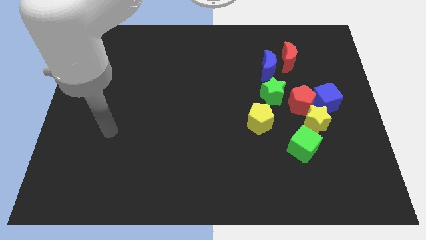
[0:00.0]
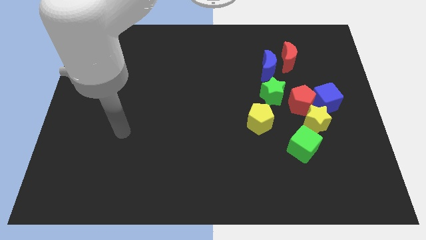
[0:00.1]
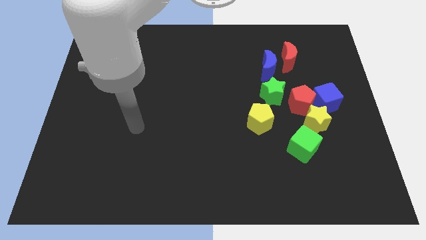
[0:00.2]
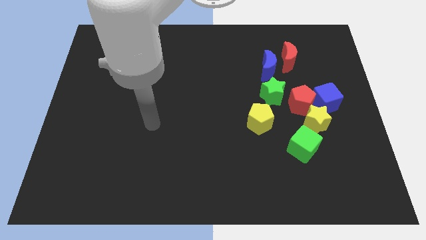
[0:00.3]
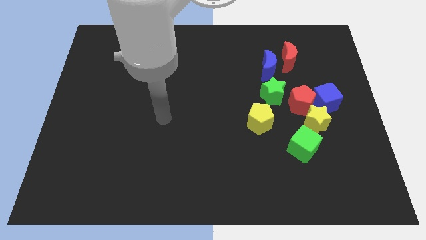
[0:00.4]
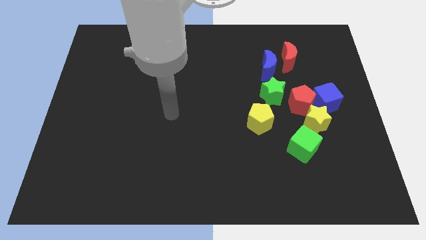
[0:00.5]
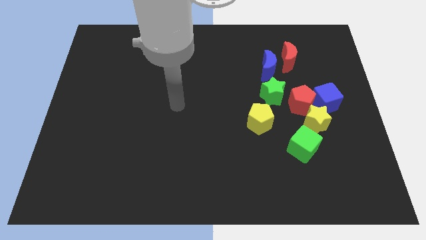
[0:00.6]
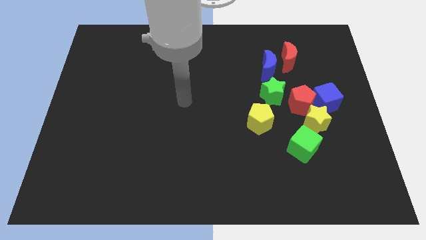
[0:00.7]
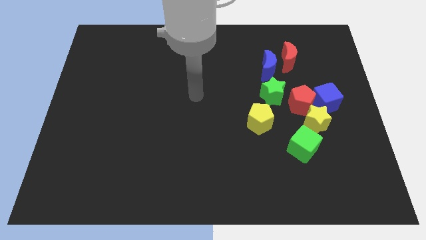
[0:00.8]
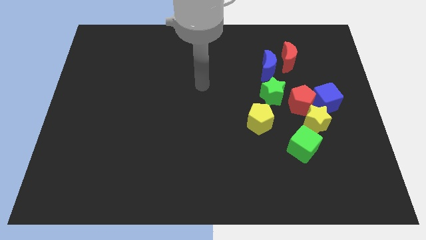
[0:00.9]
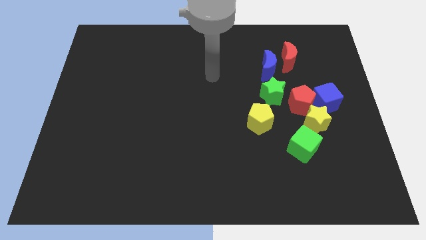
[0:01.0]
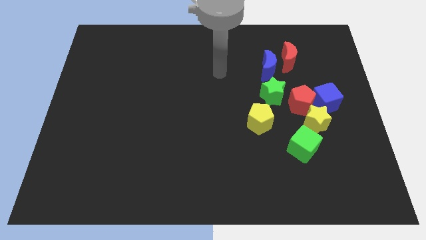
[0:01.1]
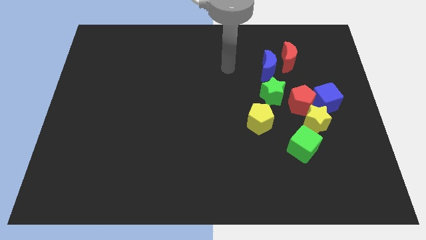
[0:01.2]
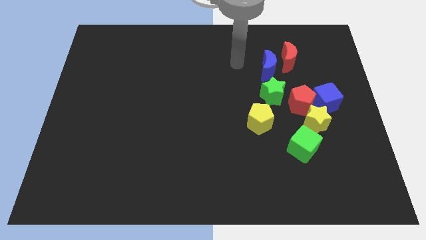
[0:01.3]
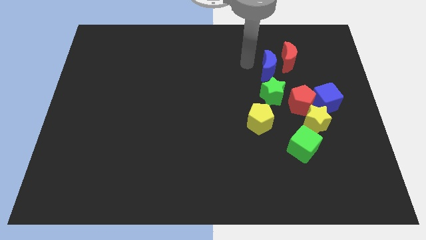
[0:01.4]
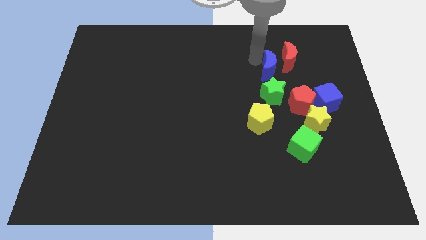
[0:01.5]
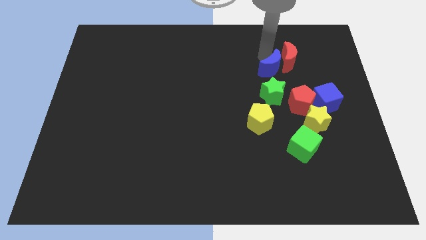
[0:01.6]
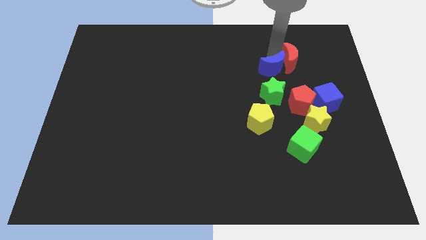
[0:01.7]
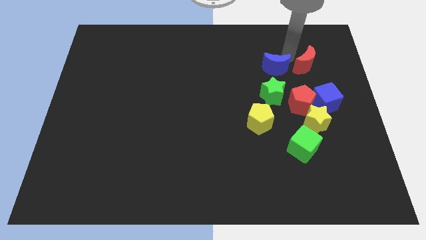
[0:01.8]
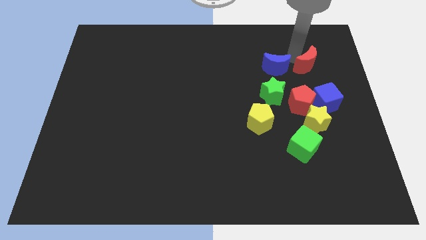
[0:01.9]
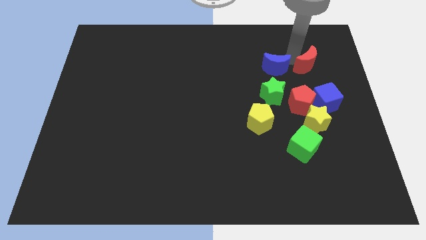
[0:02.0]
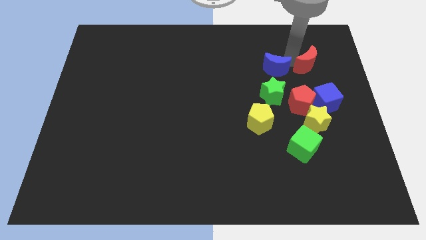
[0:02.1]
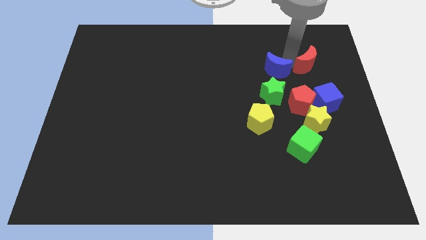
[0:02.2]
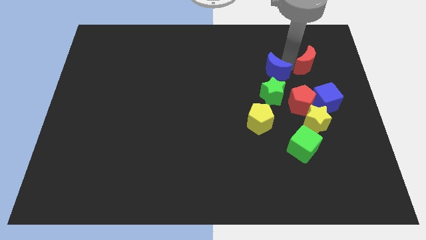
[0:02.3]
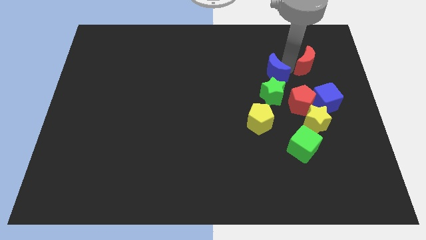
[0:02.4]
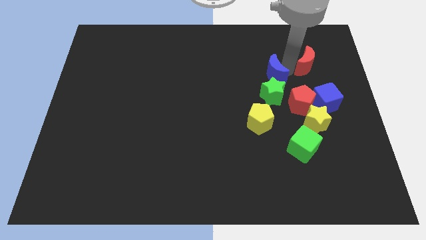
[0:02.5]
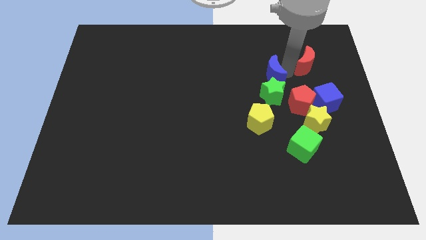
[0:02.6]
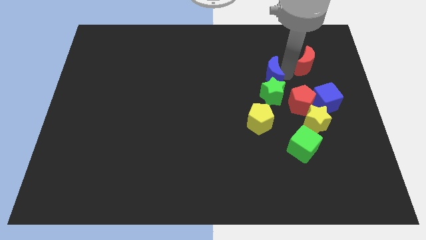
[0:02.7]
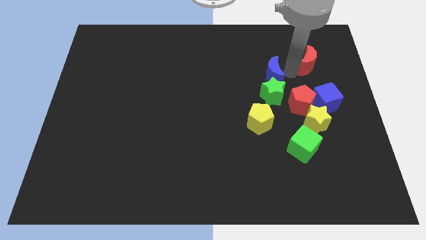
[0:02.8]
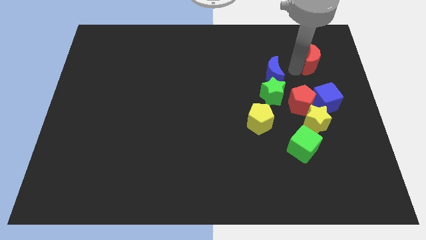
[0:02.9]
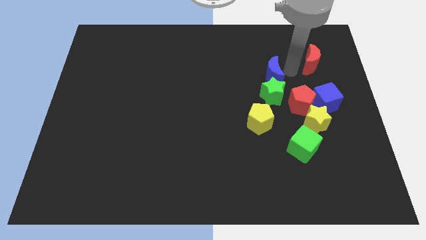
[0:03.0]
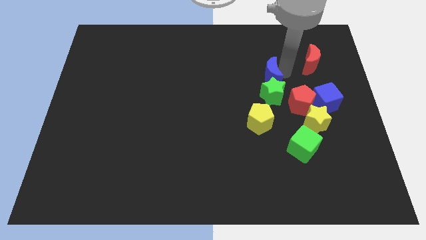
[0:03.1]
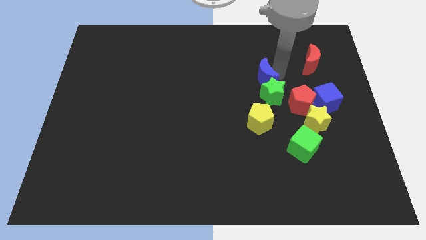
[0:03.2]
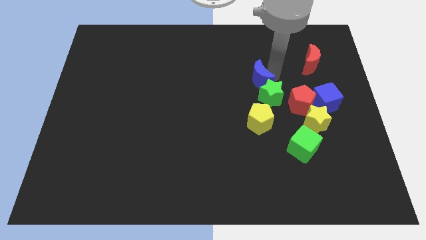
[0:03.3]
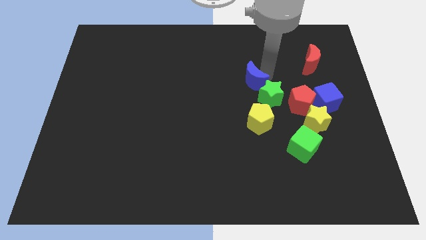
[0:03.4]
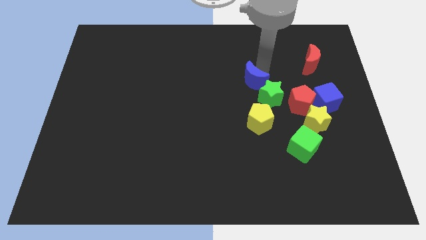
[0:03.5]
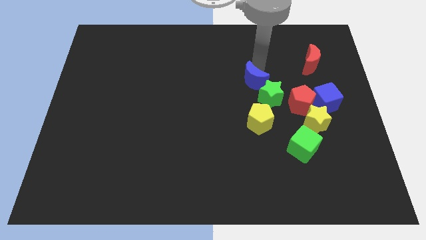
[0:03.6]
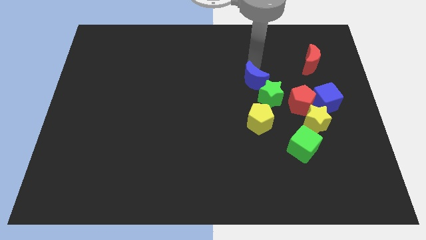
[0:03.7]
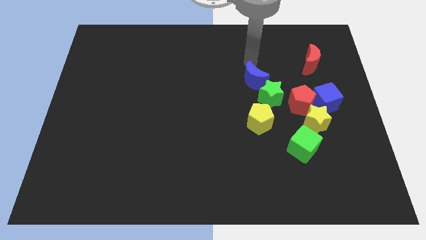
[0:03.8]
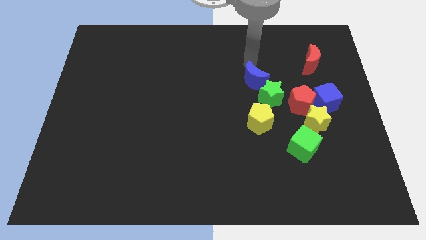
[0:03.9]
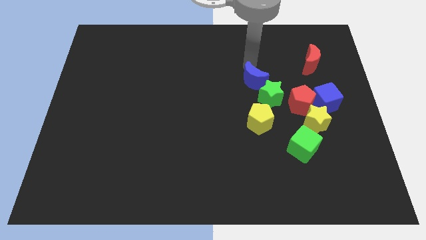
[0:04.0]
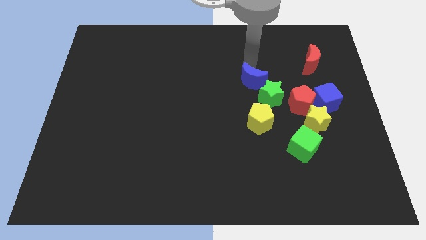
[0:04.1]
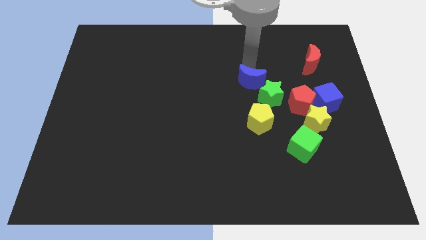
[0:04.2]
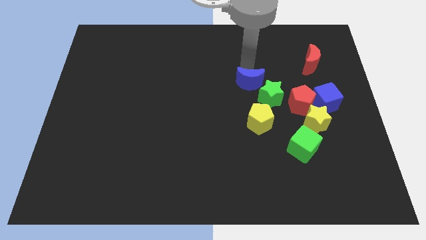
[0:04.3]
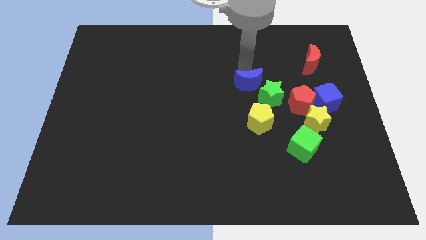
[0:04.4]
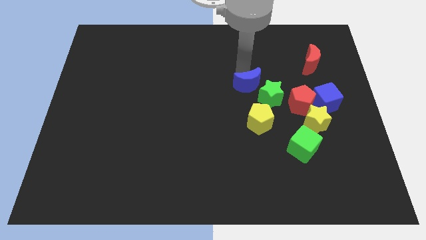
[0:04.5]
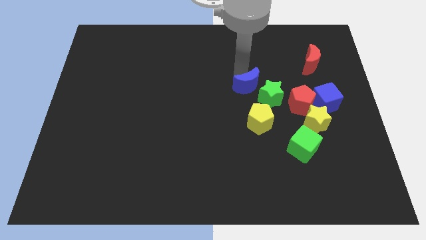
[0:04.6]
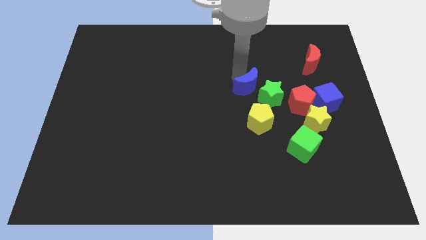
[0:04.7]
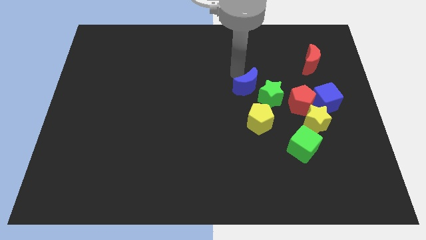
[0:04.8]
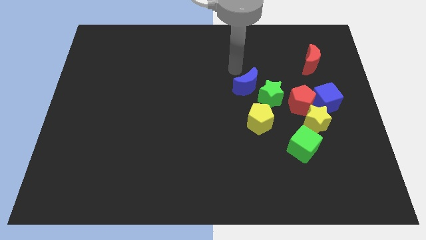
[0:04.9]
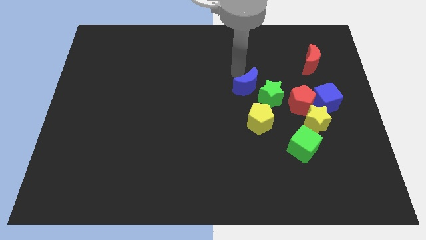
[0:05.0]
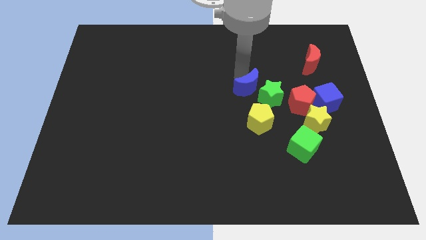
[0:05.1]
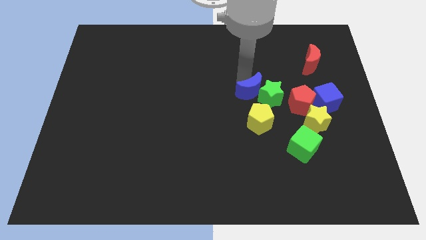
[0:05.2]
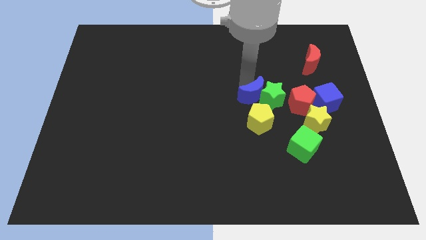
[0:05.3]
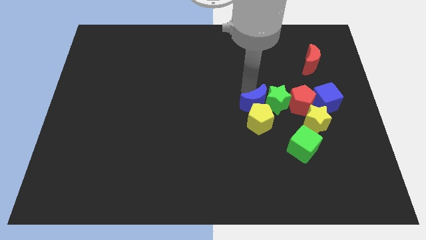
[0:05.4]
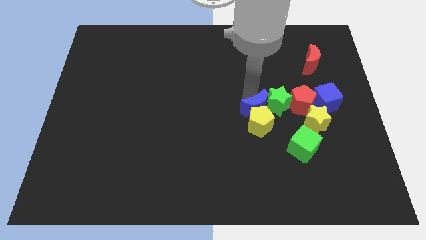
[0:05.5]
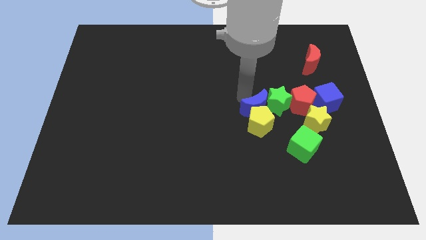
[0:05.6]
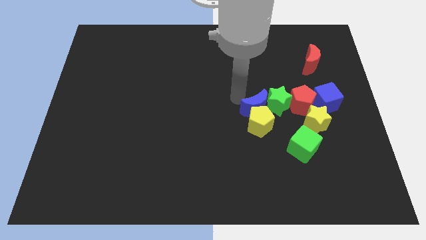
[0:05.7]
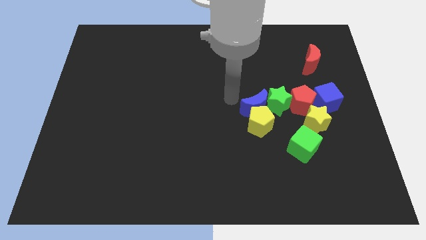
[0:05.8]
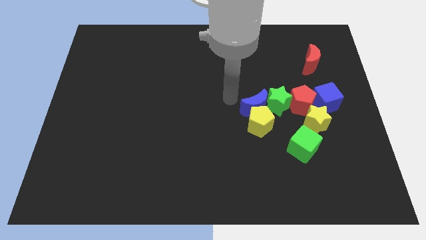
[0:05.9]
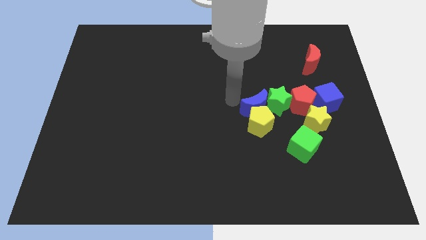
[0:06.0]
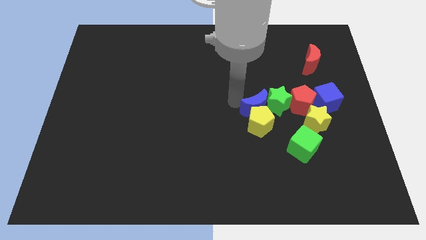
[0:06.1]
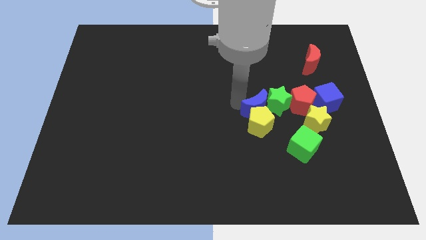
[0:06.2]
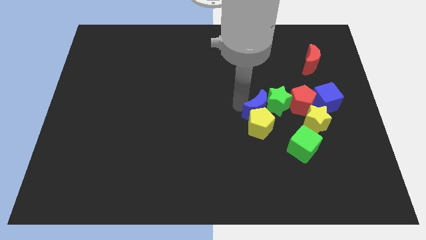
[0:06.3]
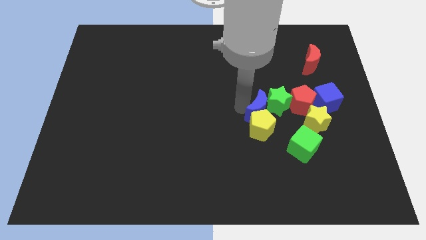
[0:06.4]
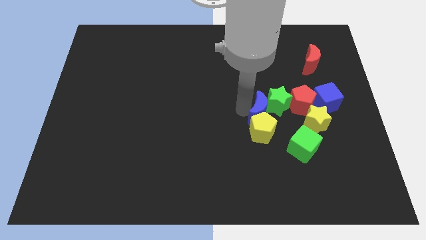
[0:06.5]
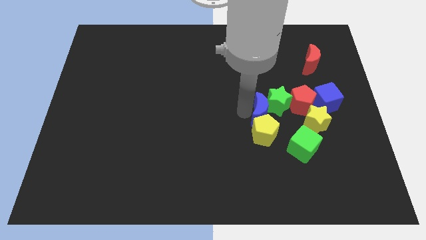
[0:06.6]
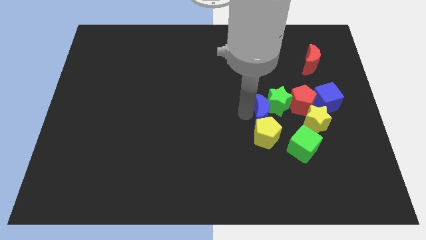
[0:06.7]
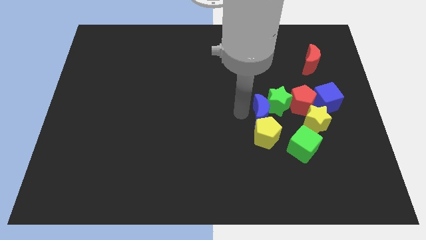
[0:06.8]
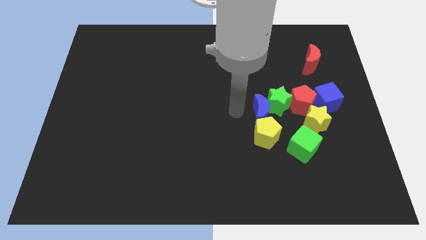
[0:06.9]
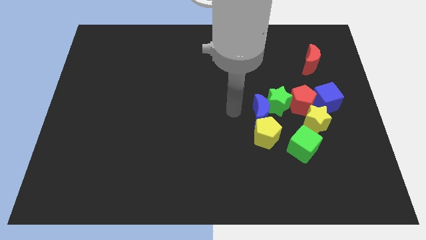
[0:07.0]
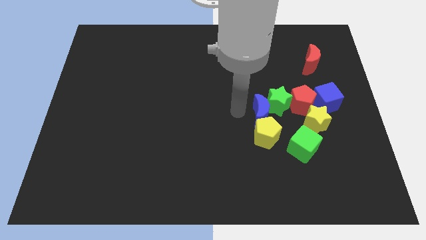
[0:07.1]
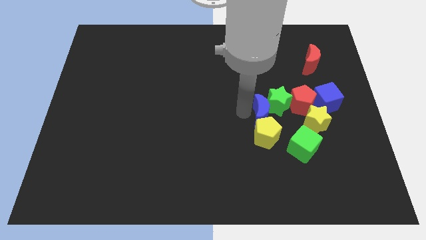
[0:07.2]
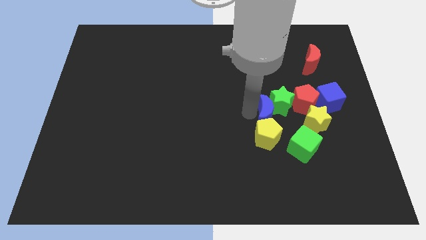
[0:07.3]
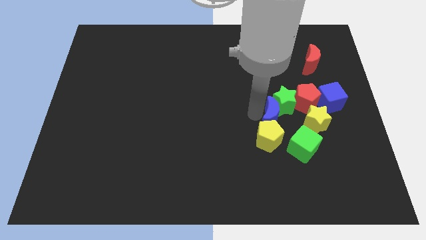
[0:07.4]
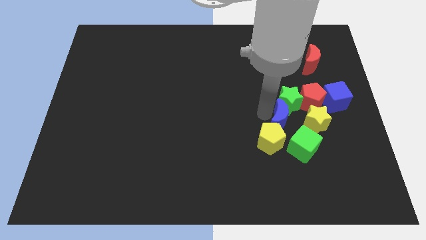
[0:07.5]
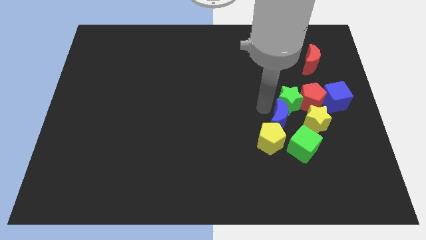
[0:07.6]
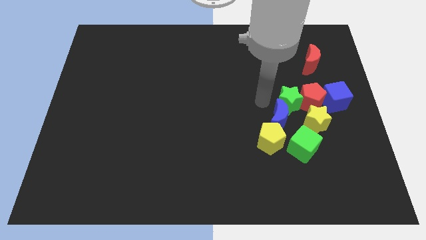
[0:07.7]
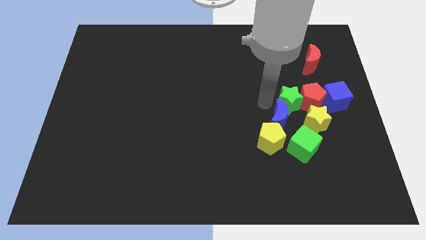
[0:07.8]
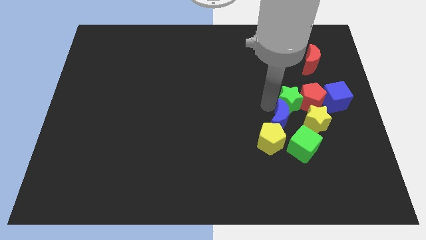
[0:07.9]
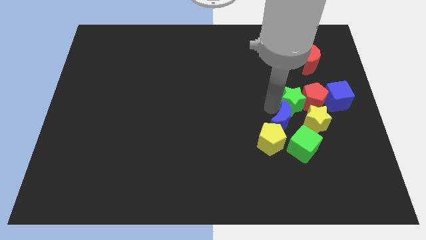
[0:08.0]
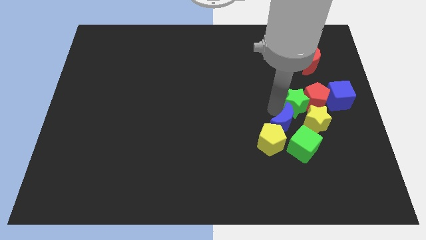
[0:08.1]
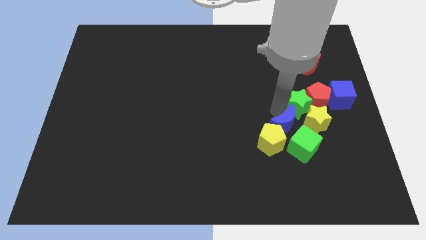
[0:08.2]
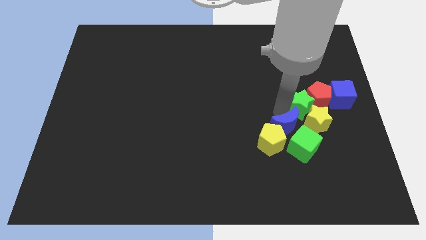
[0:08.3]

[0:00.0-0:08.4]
move the blue moon close to the green cube
